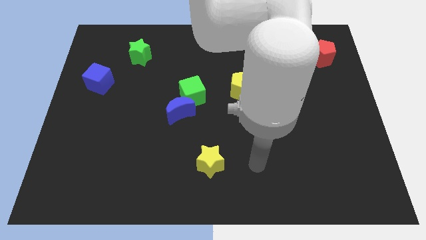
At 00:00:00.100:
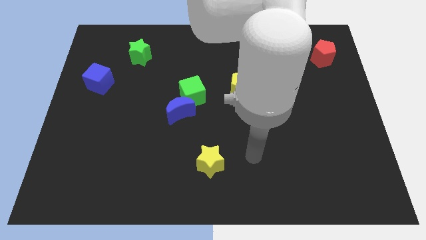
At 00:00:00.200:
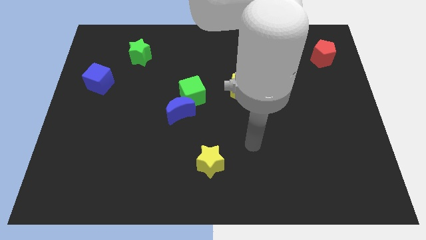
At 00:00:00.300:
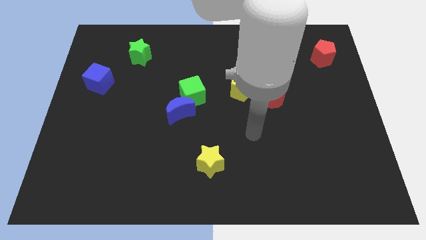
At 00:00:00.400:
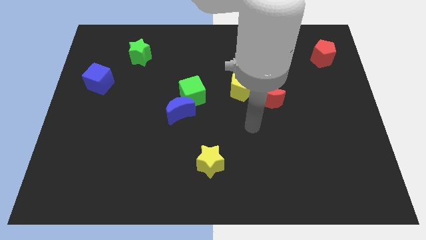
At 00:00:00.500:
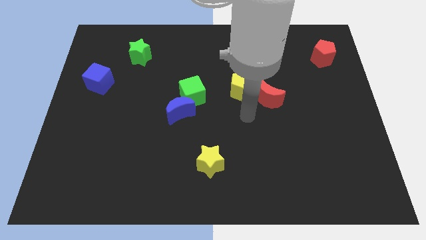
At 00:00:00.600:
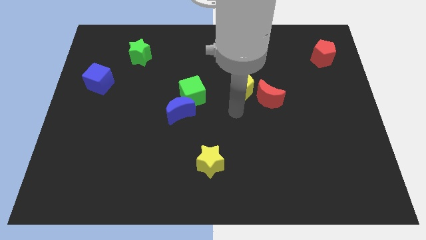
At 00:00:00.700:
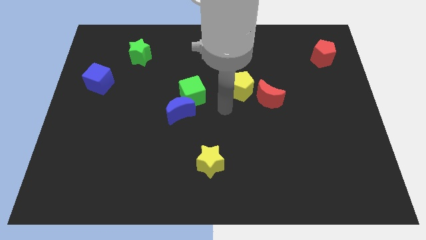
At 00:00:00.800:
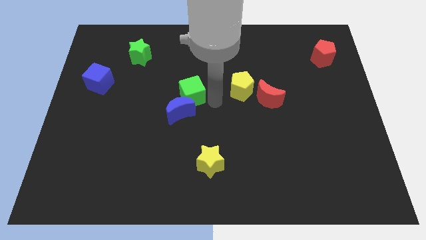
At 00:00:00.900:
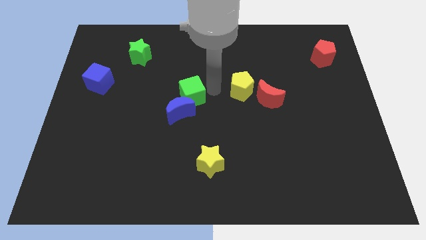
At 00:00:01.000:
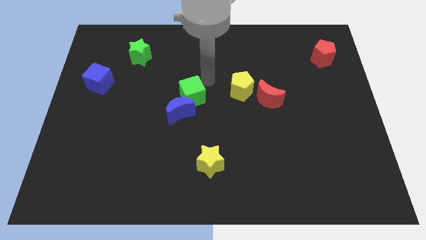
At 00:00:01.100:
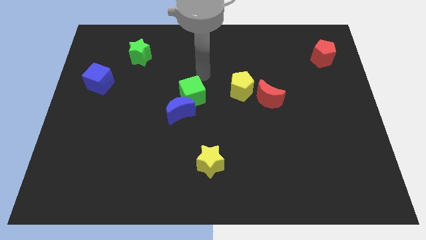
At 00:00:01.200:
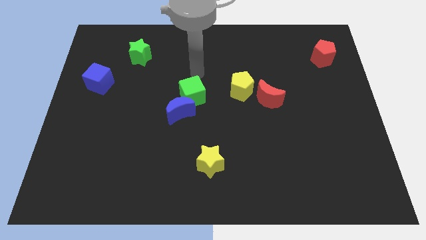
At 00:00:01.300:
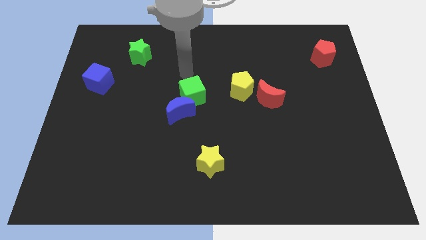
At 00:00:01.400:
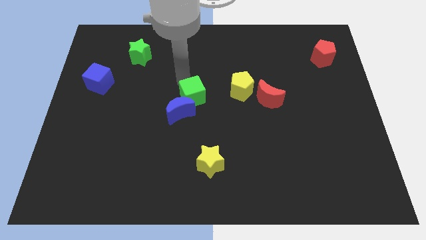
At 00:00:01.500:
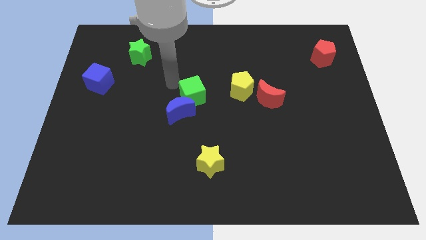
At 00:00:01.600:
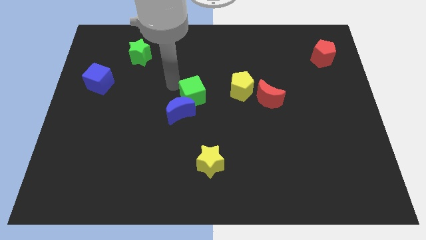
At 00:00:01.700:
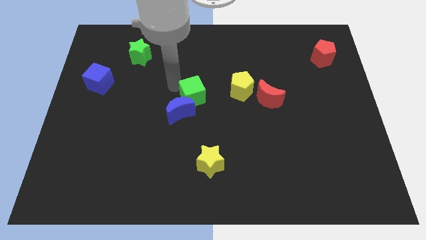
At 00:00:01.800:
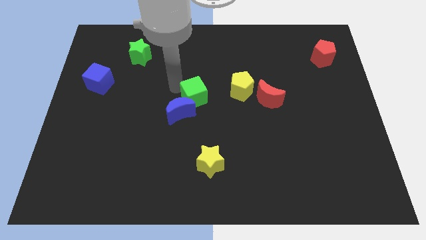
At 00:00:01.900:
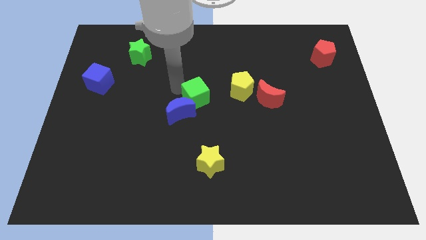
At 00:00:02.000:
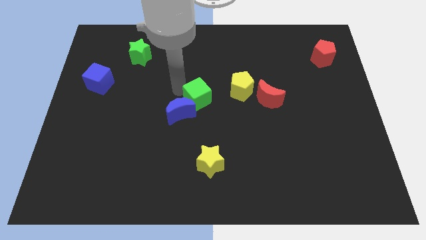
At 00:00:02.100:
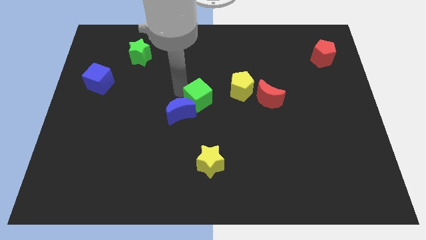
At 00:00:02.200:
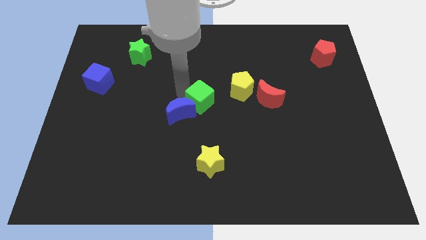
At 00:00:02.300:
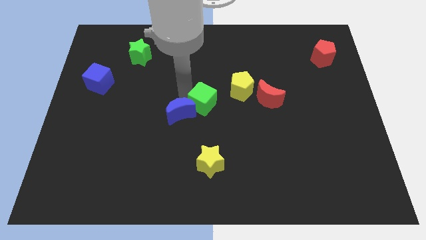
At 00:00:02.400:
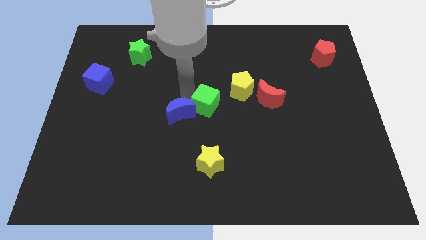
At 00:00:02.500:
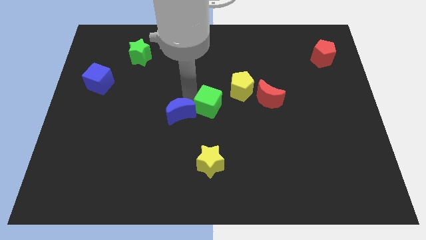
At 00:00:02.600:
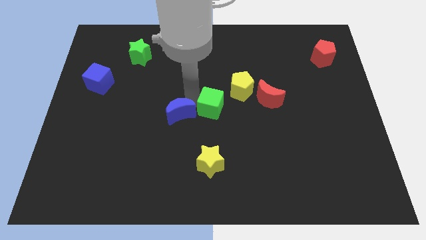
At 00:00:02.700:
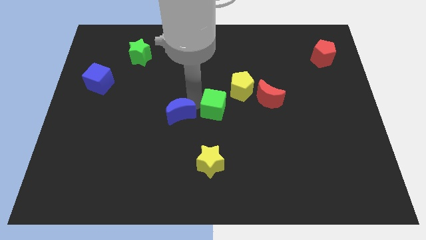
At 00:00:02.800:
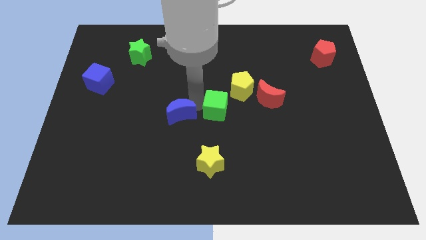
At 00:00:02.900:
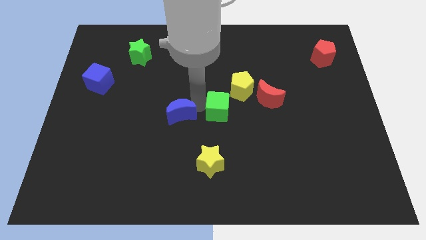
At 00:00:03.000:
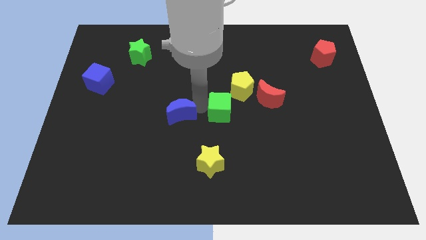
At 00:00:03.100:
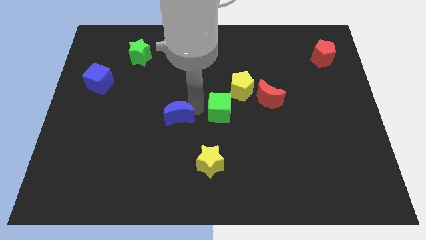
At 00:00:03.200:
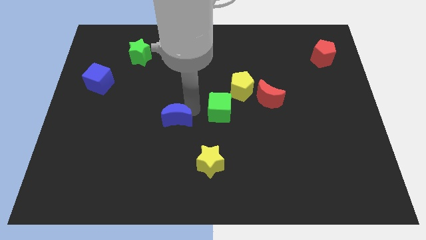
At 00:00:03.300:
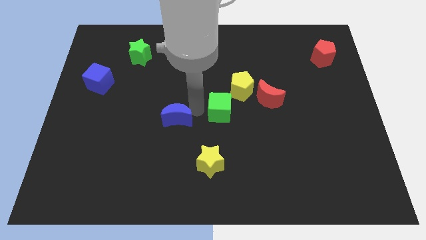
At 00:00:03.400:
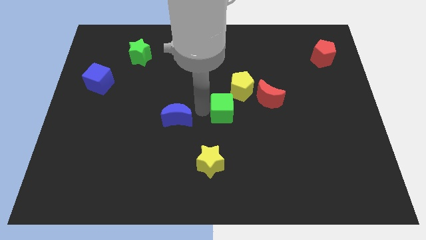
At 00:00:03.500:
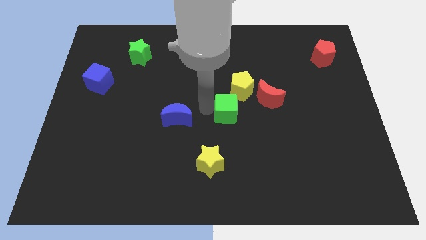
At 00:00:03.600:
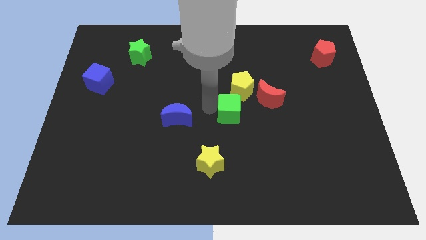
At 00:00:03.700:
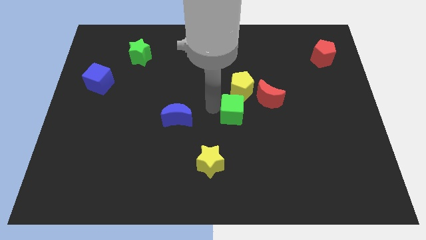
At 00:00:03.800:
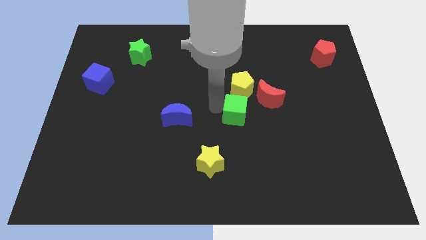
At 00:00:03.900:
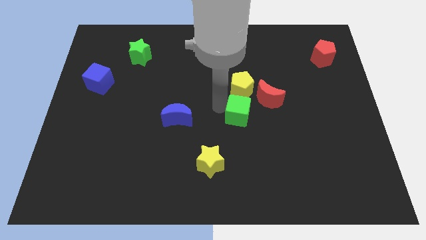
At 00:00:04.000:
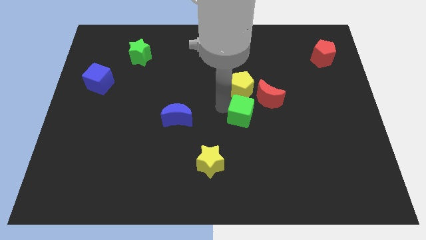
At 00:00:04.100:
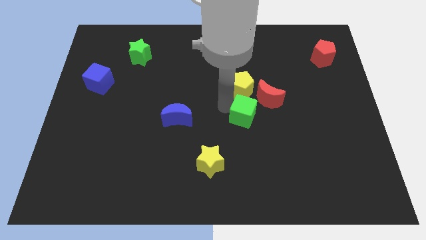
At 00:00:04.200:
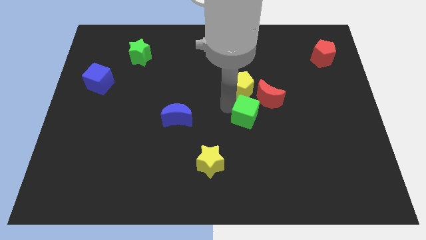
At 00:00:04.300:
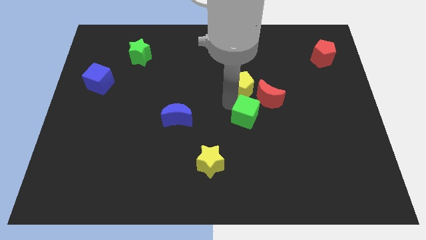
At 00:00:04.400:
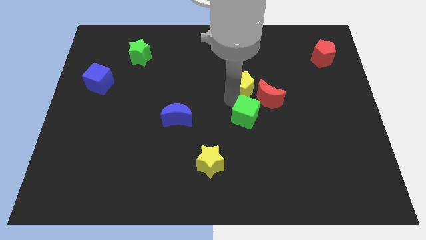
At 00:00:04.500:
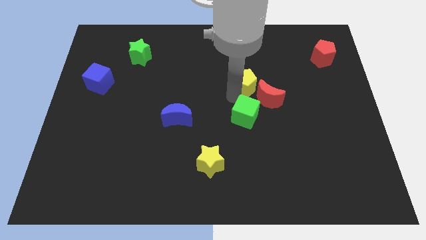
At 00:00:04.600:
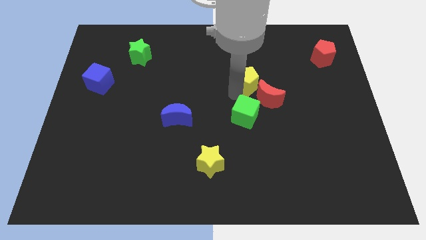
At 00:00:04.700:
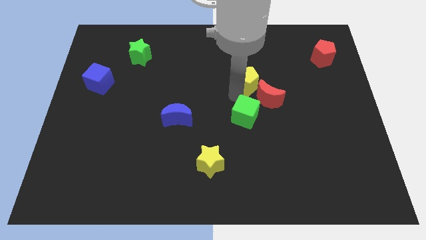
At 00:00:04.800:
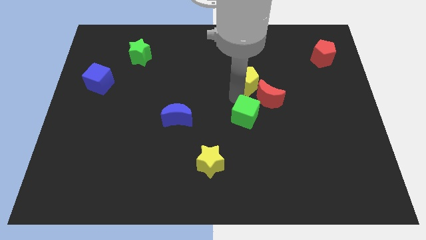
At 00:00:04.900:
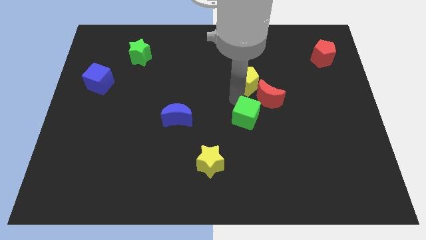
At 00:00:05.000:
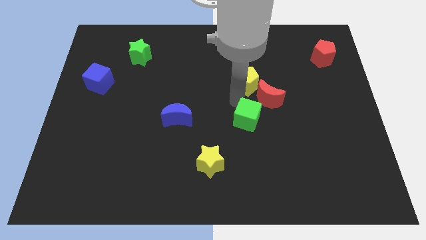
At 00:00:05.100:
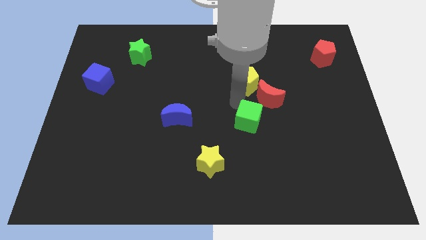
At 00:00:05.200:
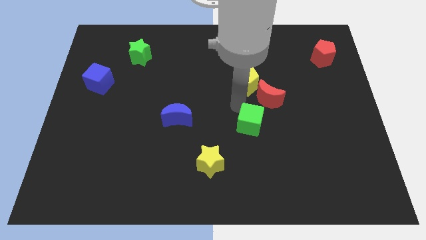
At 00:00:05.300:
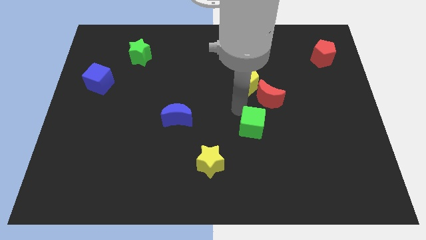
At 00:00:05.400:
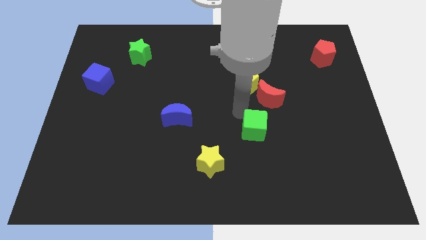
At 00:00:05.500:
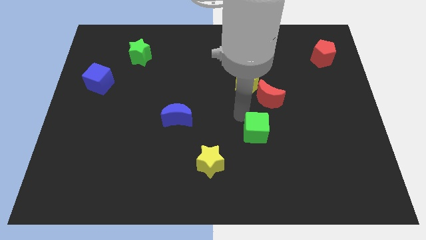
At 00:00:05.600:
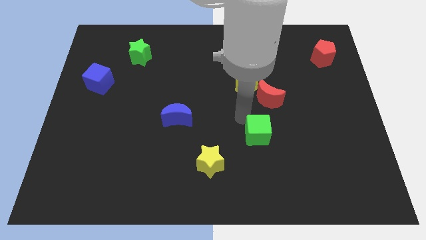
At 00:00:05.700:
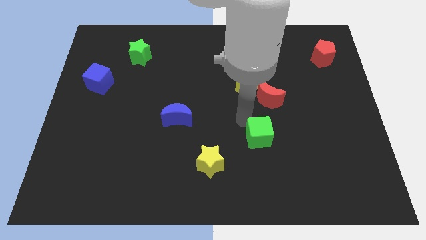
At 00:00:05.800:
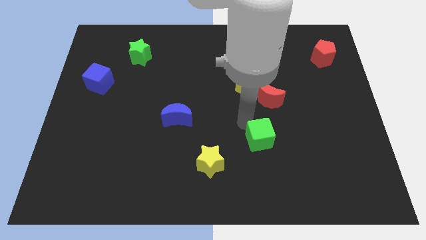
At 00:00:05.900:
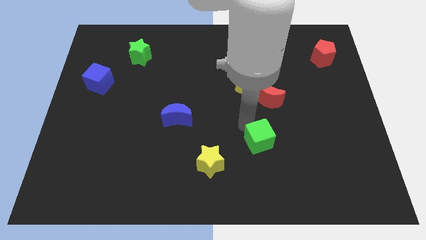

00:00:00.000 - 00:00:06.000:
move the green cube downwards and to the right diagonally

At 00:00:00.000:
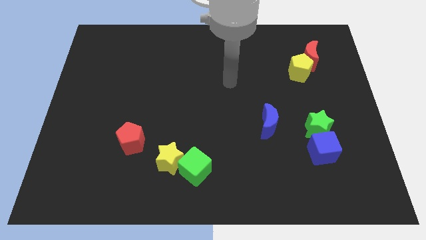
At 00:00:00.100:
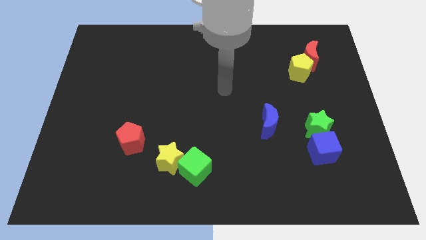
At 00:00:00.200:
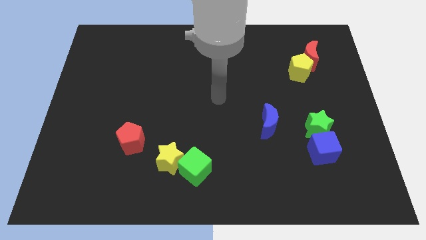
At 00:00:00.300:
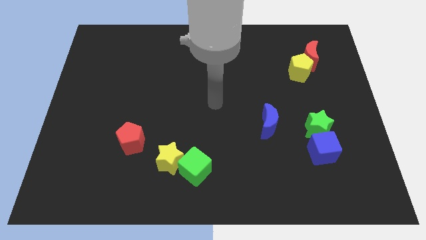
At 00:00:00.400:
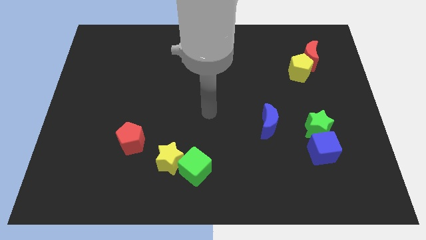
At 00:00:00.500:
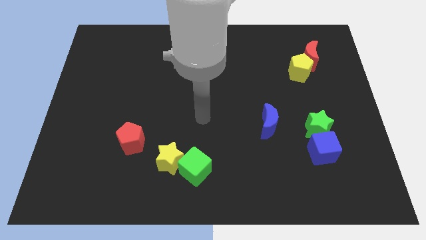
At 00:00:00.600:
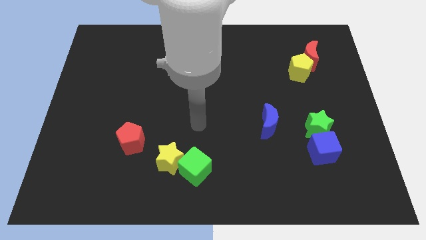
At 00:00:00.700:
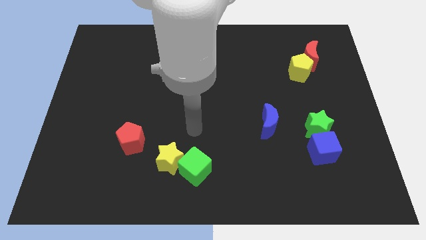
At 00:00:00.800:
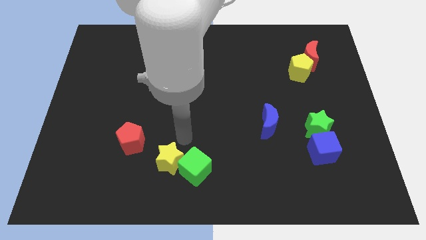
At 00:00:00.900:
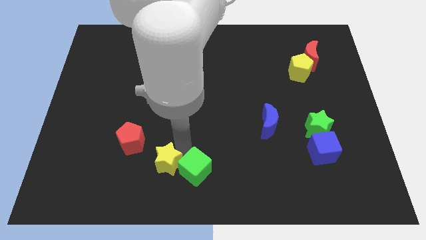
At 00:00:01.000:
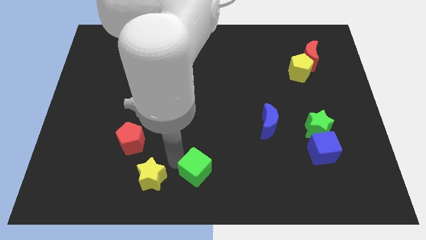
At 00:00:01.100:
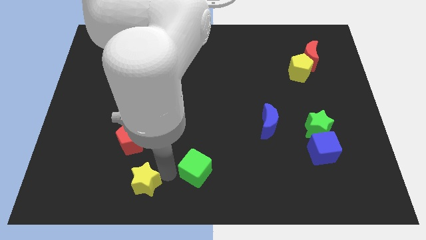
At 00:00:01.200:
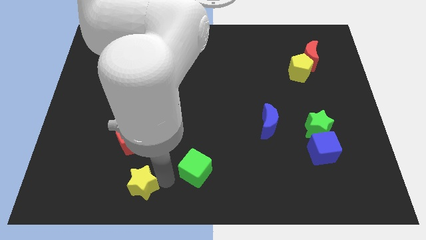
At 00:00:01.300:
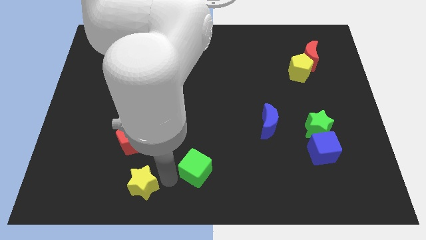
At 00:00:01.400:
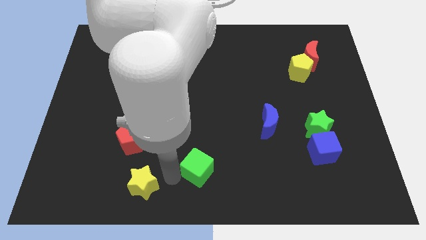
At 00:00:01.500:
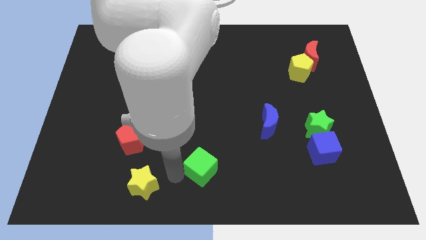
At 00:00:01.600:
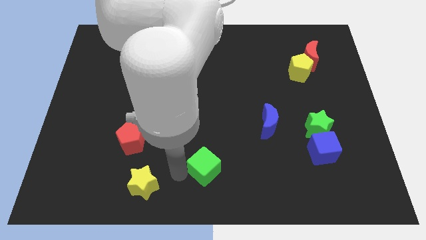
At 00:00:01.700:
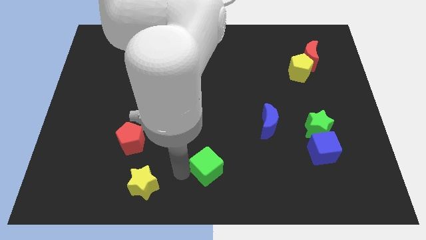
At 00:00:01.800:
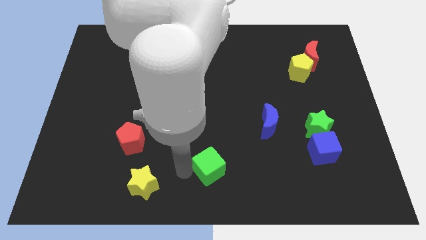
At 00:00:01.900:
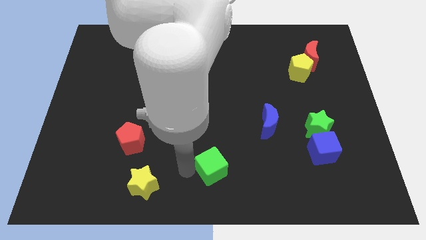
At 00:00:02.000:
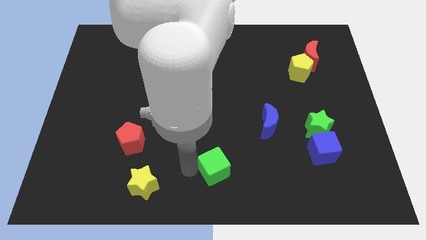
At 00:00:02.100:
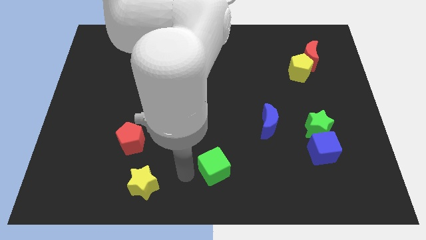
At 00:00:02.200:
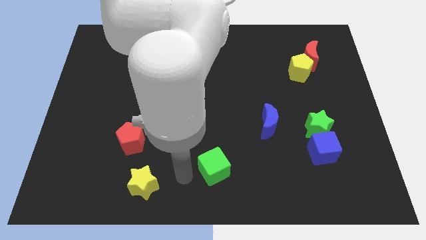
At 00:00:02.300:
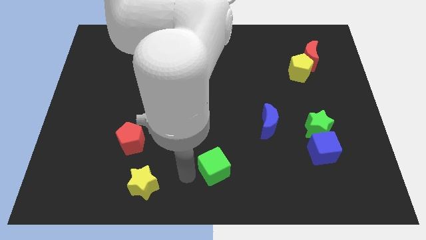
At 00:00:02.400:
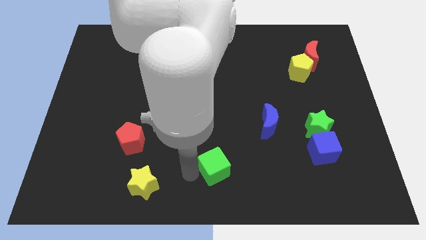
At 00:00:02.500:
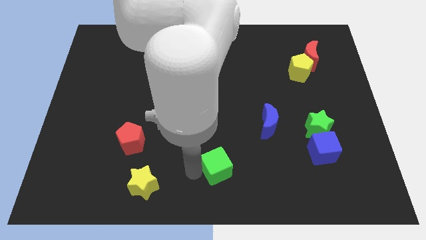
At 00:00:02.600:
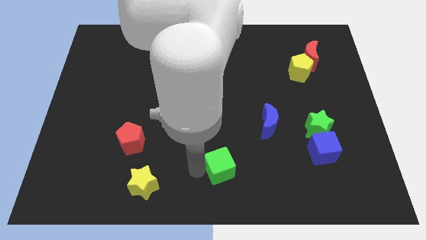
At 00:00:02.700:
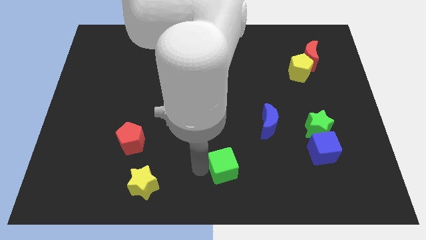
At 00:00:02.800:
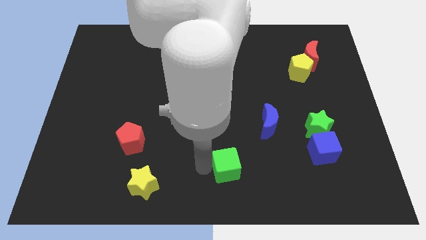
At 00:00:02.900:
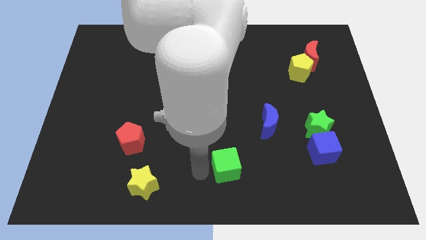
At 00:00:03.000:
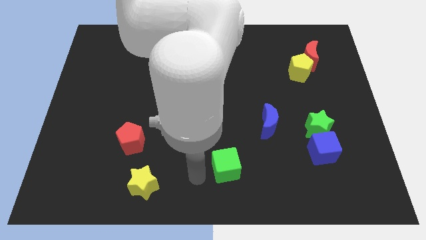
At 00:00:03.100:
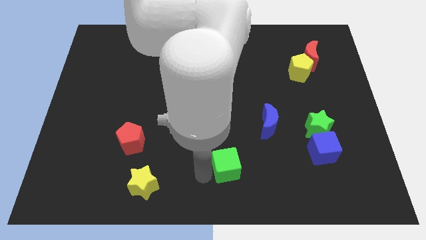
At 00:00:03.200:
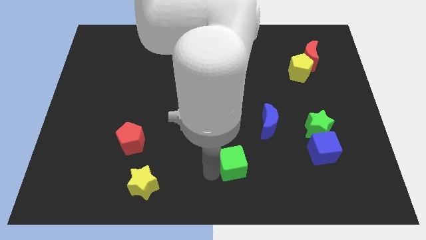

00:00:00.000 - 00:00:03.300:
slide the green cube somewhat right
